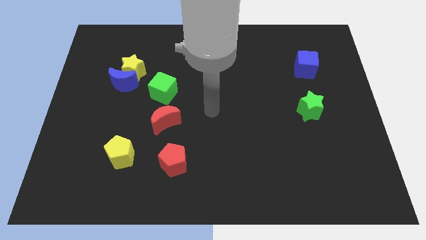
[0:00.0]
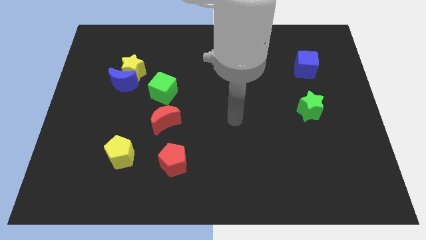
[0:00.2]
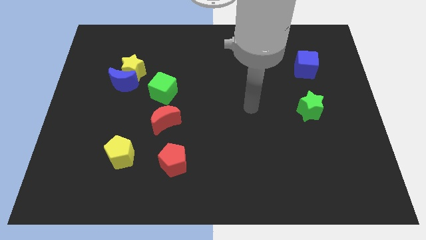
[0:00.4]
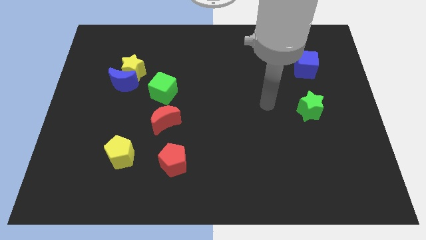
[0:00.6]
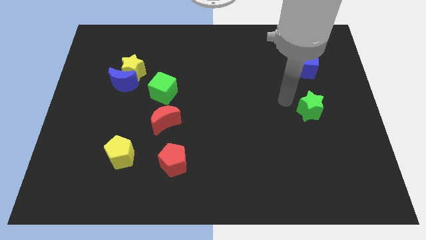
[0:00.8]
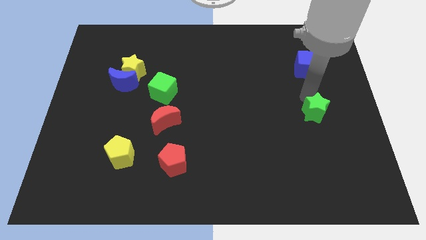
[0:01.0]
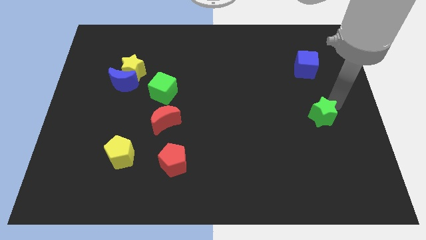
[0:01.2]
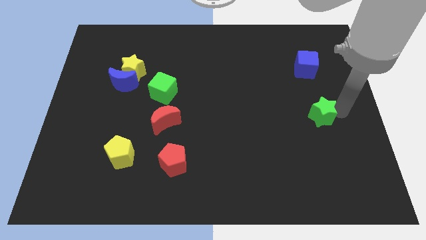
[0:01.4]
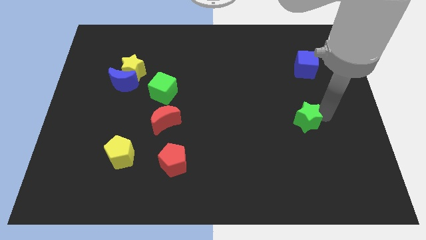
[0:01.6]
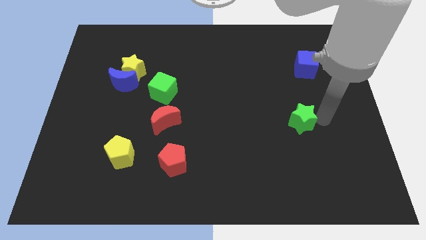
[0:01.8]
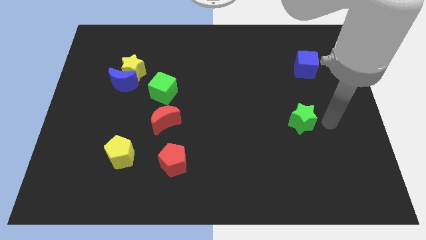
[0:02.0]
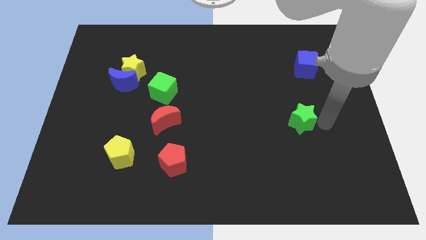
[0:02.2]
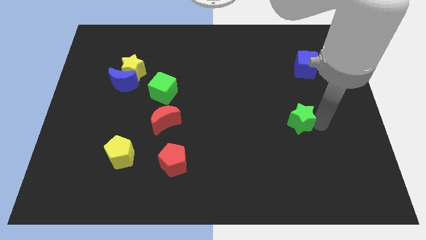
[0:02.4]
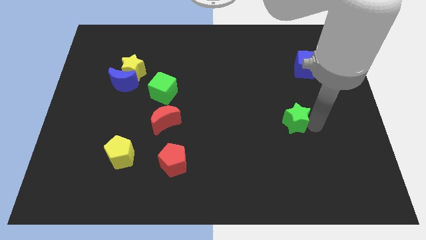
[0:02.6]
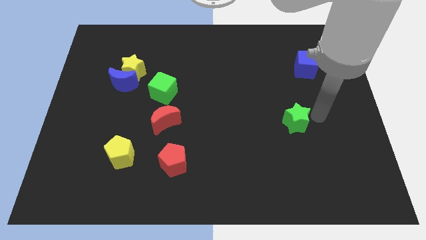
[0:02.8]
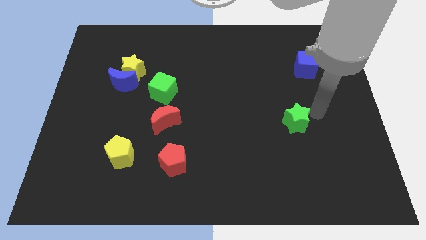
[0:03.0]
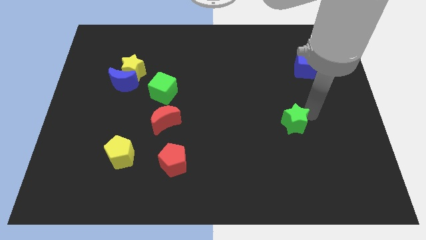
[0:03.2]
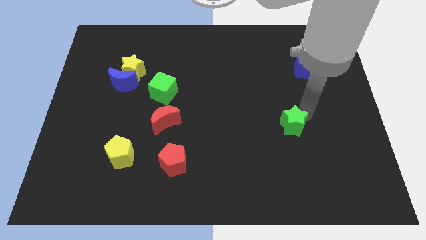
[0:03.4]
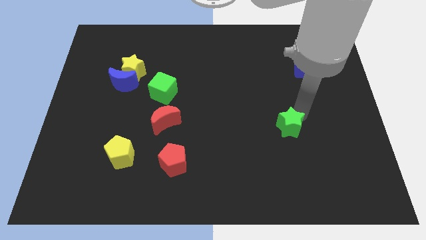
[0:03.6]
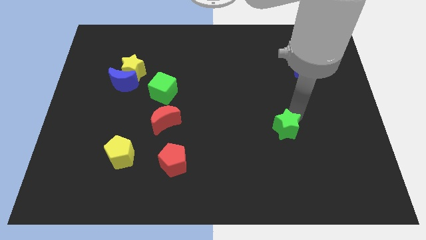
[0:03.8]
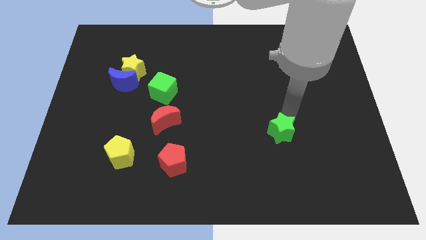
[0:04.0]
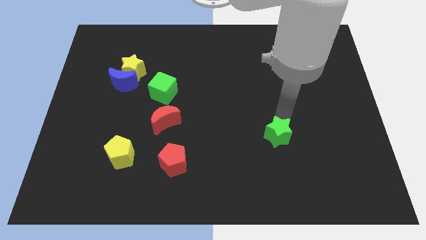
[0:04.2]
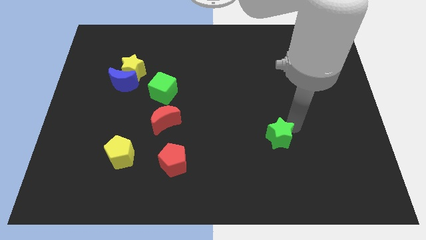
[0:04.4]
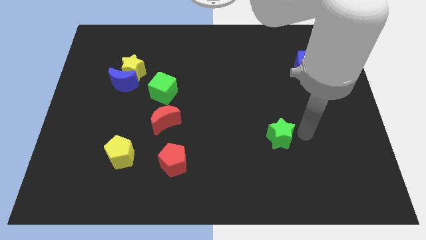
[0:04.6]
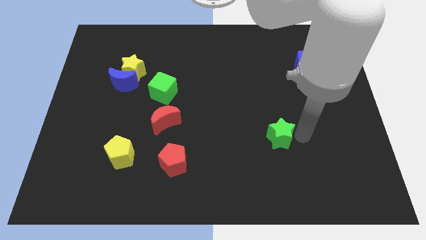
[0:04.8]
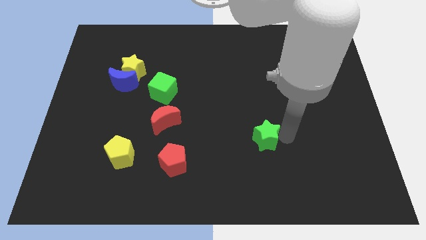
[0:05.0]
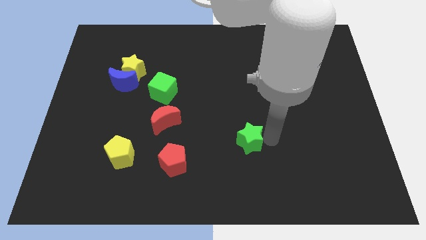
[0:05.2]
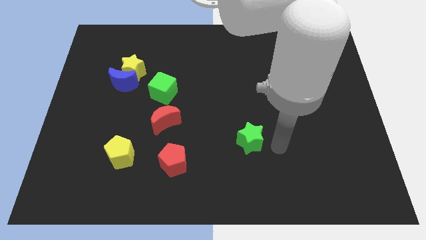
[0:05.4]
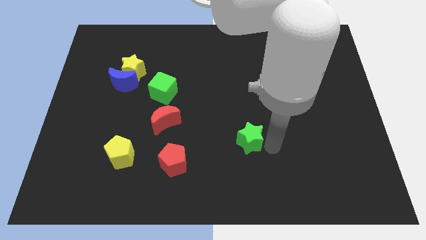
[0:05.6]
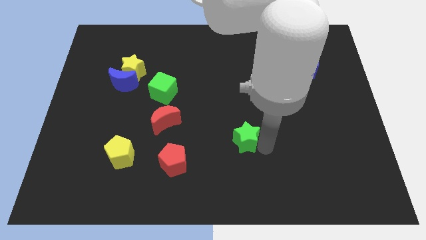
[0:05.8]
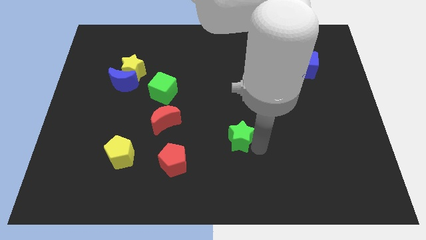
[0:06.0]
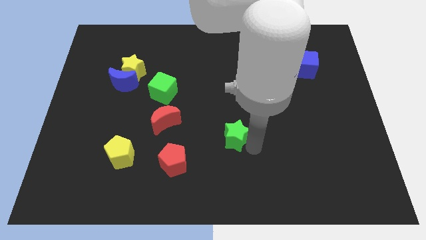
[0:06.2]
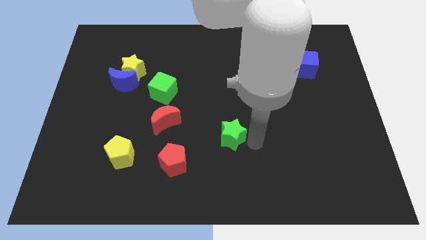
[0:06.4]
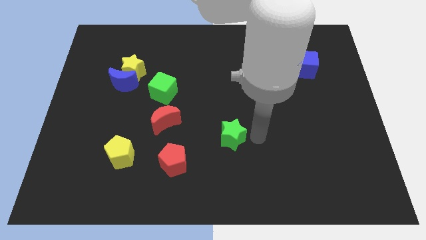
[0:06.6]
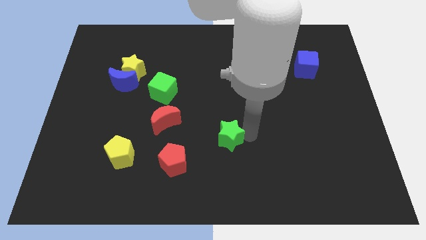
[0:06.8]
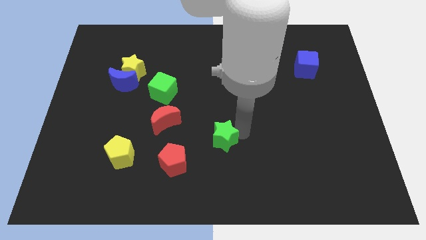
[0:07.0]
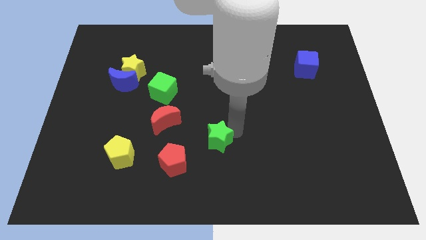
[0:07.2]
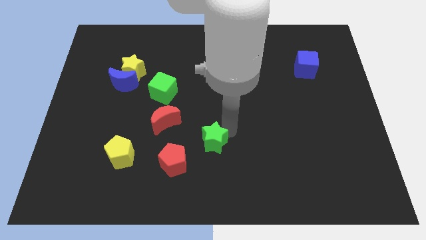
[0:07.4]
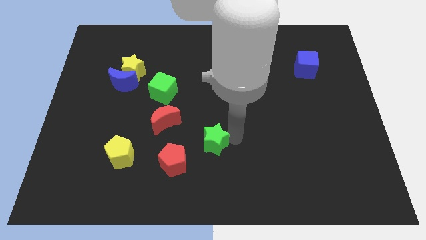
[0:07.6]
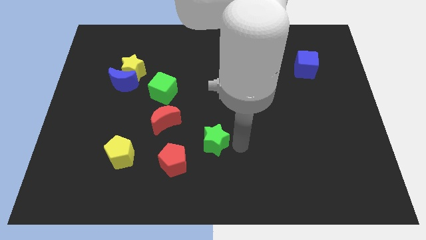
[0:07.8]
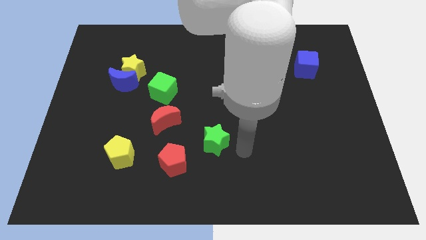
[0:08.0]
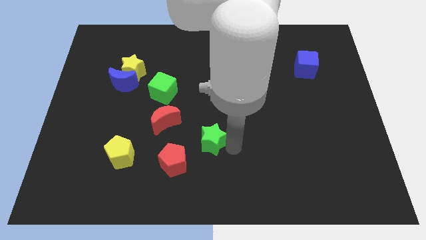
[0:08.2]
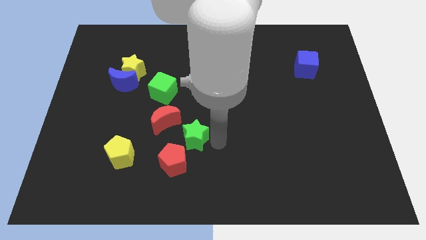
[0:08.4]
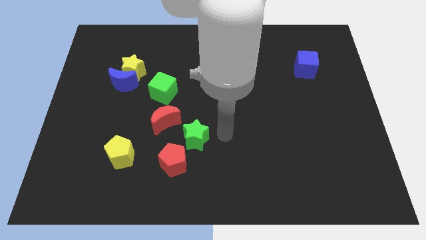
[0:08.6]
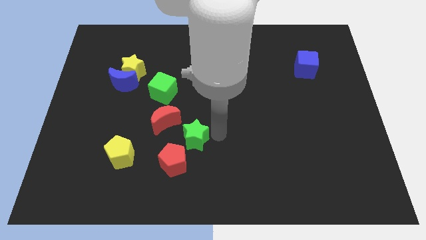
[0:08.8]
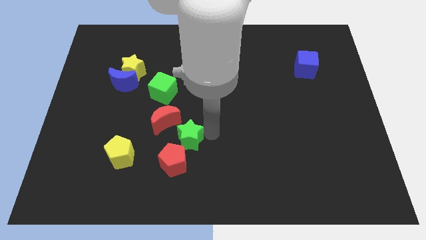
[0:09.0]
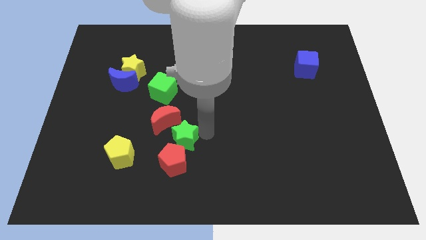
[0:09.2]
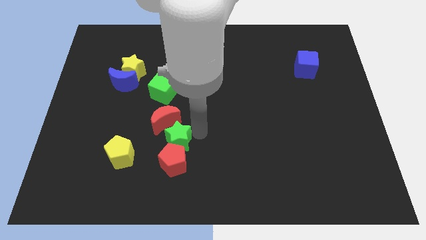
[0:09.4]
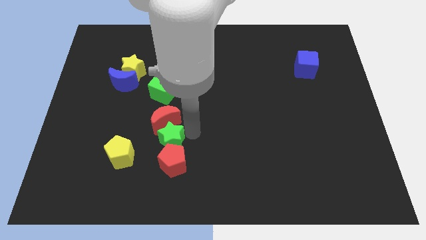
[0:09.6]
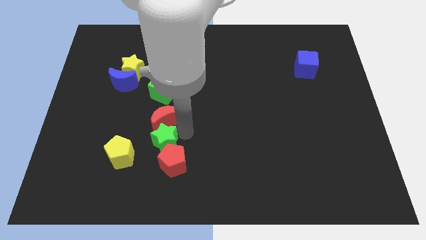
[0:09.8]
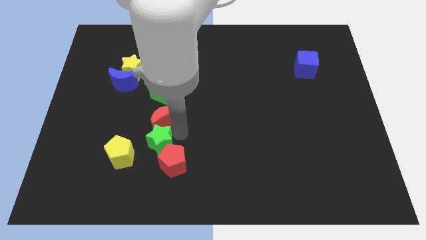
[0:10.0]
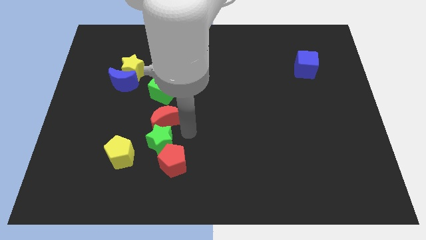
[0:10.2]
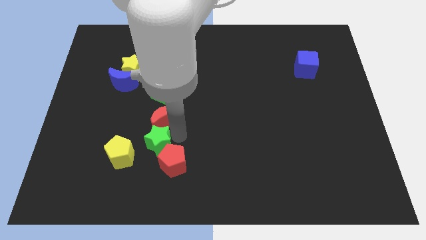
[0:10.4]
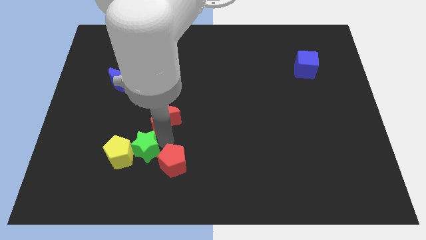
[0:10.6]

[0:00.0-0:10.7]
put the green star to the yellow pentagon

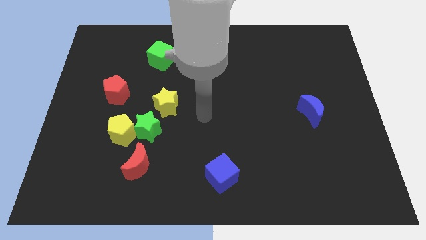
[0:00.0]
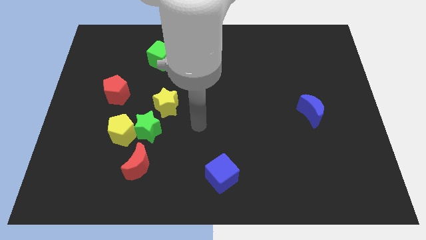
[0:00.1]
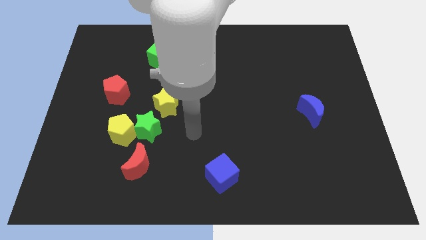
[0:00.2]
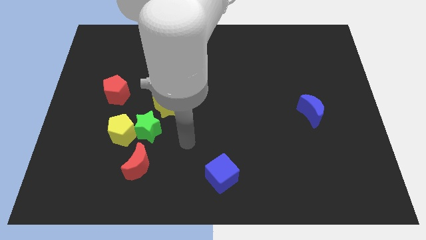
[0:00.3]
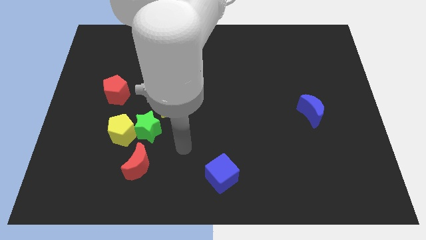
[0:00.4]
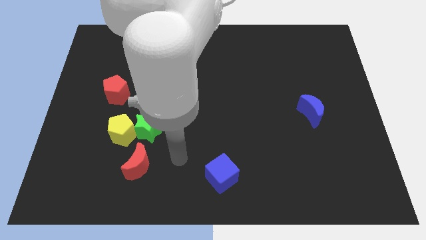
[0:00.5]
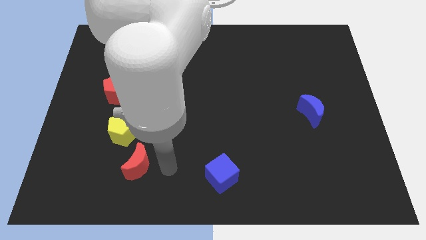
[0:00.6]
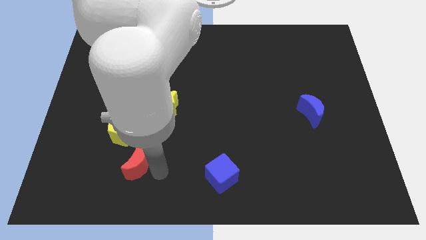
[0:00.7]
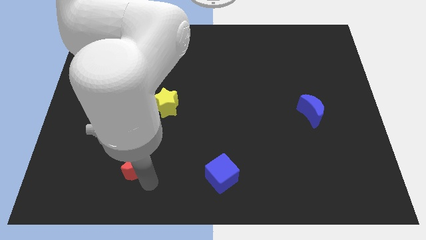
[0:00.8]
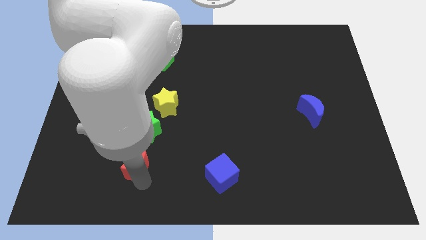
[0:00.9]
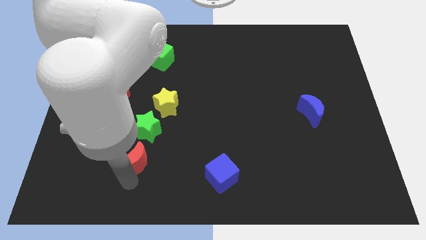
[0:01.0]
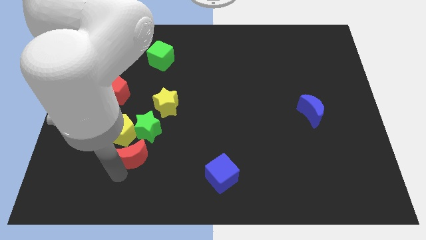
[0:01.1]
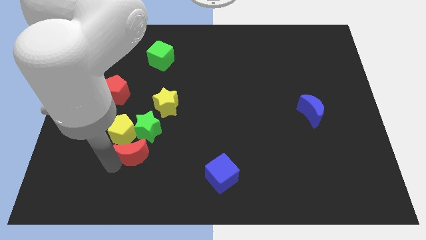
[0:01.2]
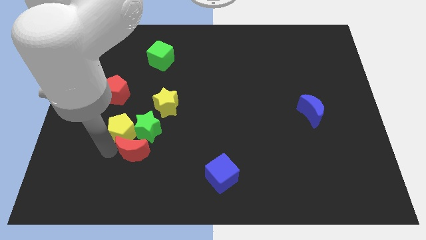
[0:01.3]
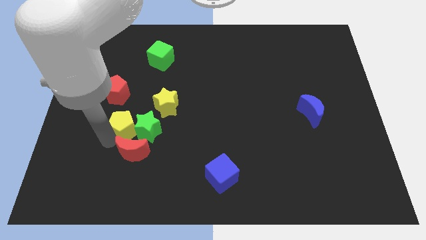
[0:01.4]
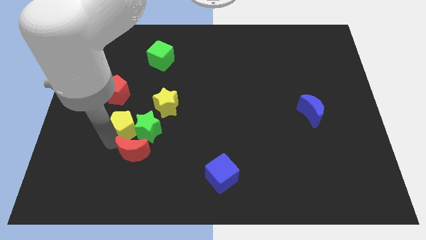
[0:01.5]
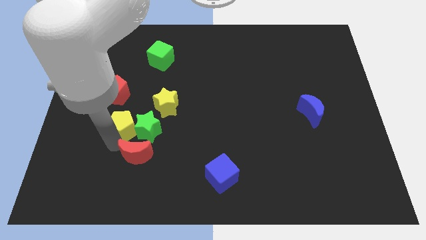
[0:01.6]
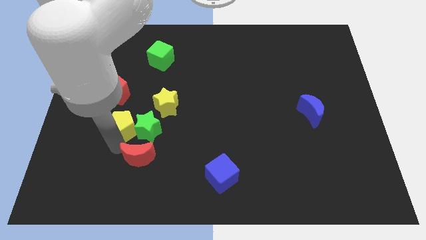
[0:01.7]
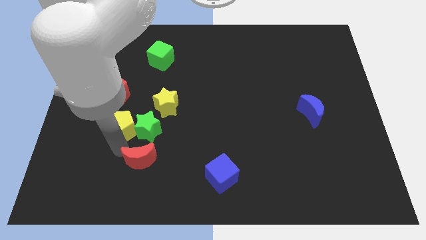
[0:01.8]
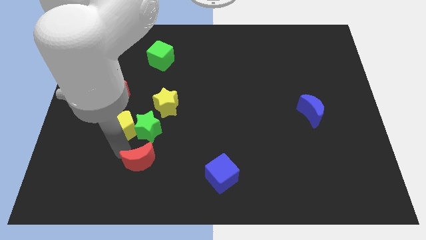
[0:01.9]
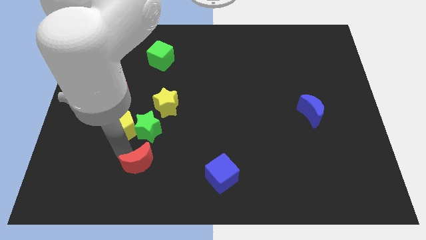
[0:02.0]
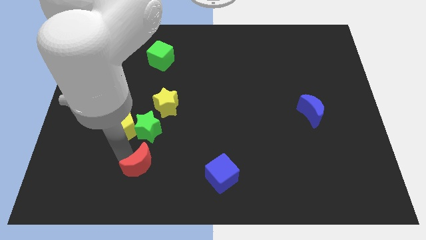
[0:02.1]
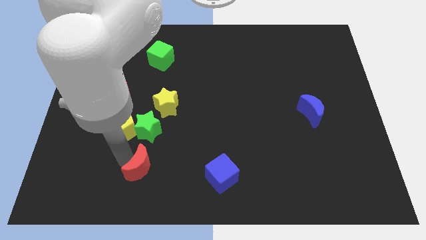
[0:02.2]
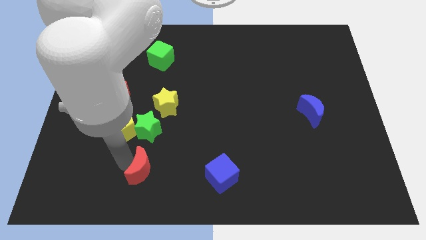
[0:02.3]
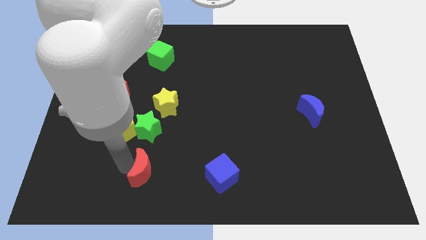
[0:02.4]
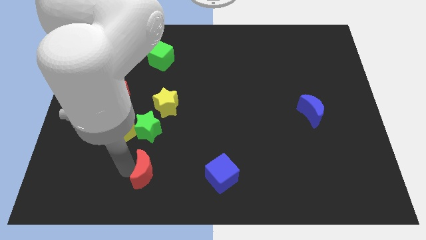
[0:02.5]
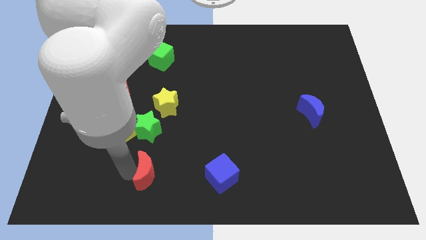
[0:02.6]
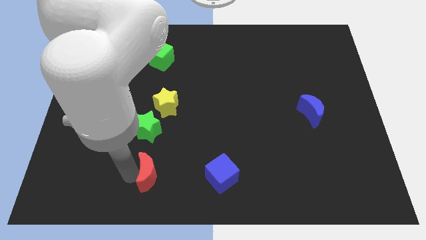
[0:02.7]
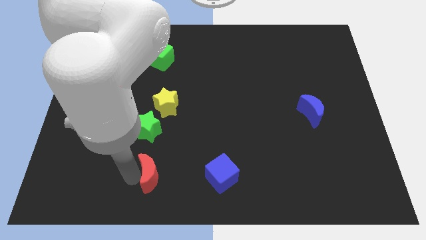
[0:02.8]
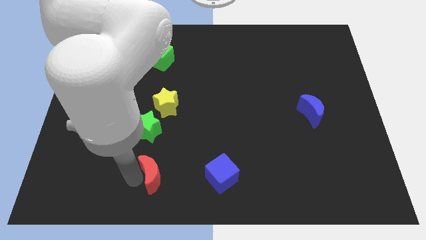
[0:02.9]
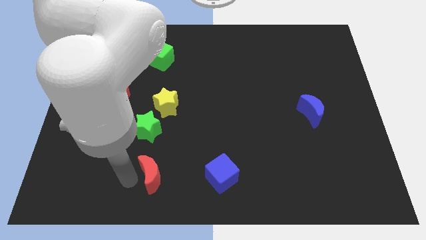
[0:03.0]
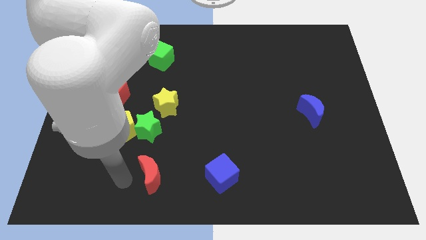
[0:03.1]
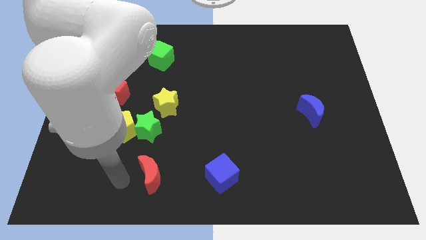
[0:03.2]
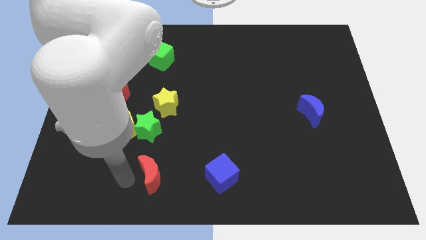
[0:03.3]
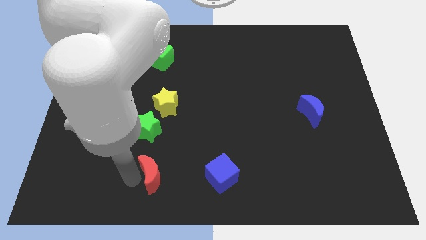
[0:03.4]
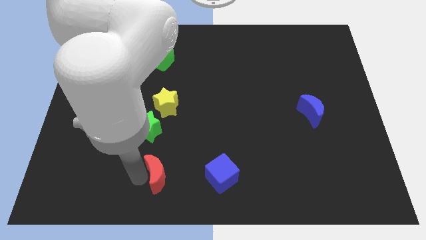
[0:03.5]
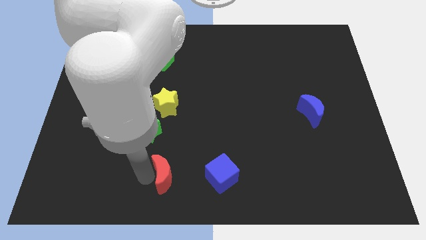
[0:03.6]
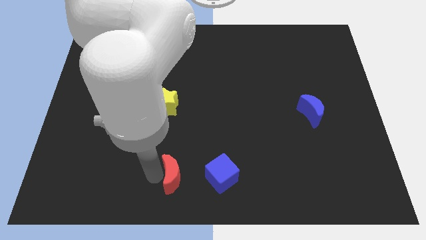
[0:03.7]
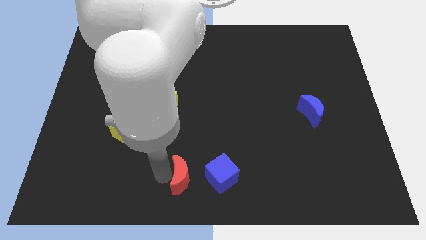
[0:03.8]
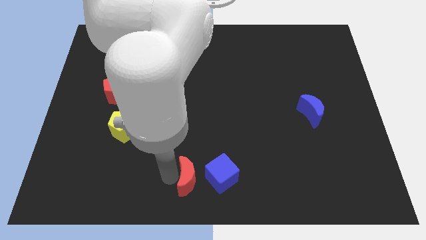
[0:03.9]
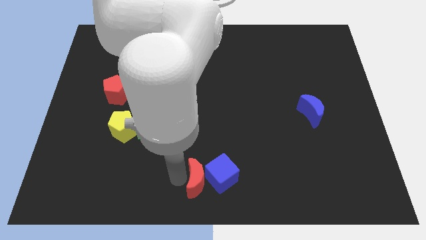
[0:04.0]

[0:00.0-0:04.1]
move the red moon towards the blue cube
